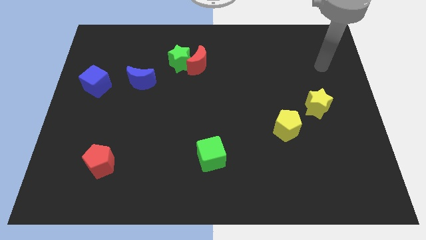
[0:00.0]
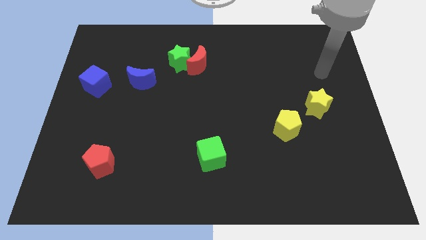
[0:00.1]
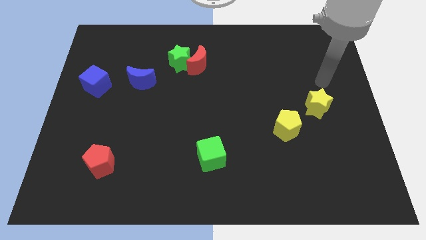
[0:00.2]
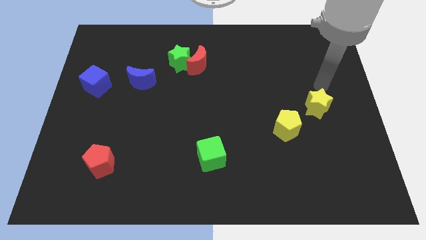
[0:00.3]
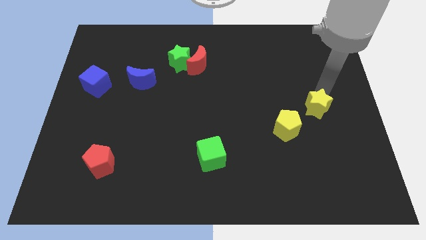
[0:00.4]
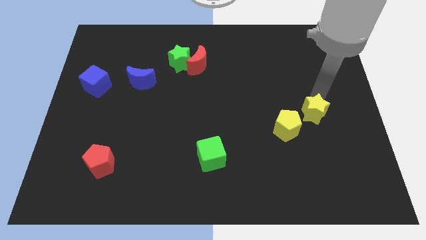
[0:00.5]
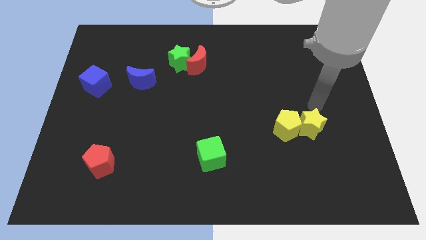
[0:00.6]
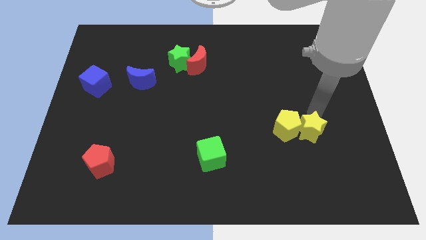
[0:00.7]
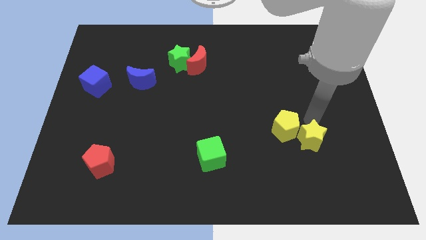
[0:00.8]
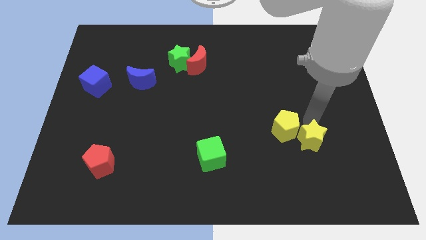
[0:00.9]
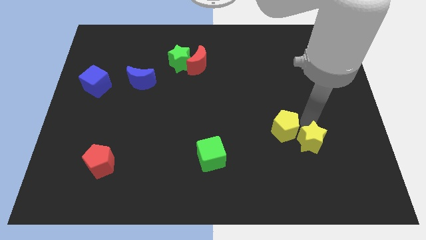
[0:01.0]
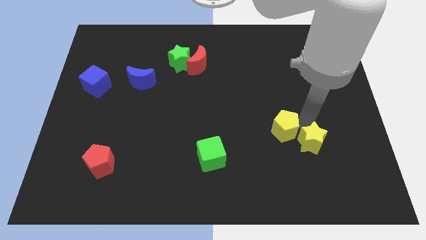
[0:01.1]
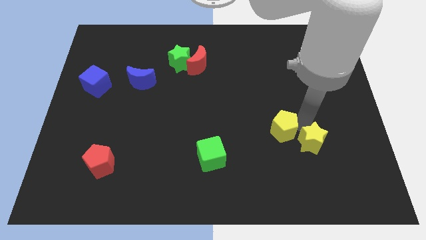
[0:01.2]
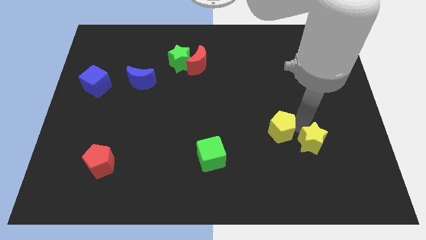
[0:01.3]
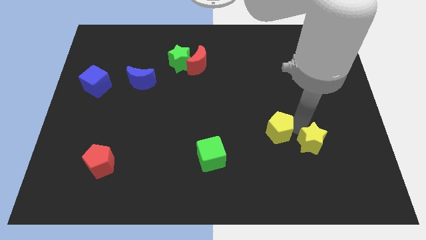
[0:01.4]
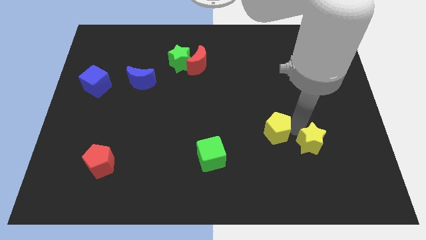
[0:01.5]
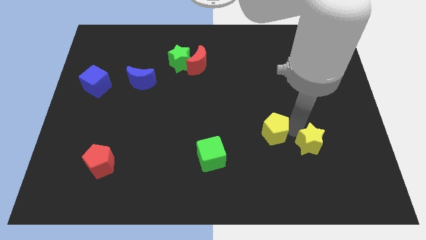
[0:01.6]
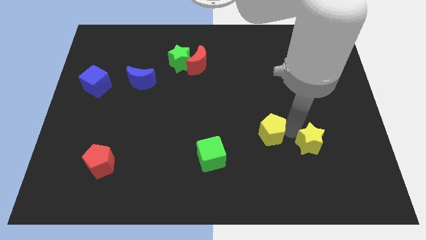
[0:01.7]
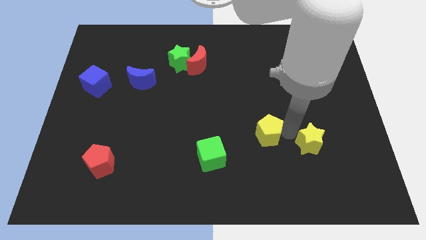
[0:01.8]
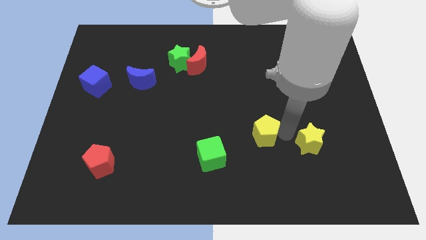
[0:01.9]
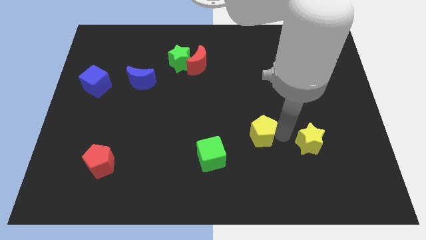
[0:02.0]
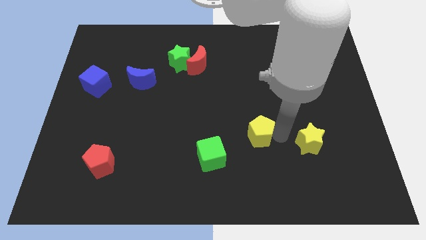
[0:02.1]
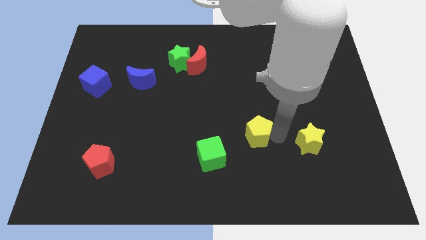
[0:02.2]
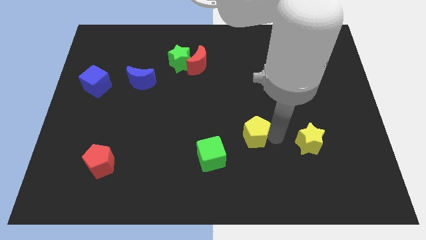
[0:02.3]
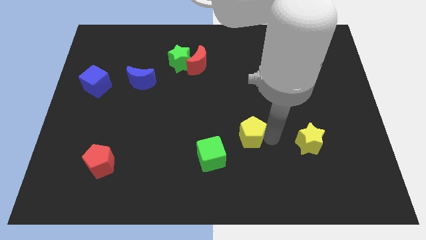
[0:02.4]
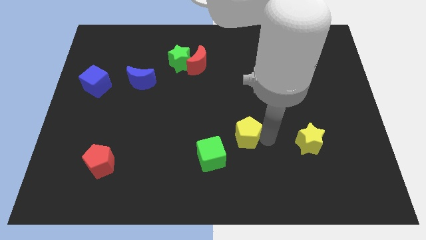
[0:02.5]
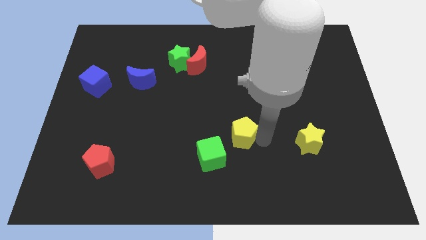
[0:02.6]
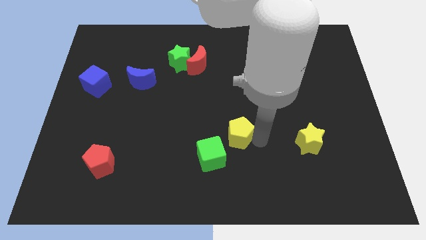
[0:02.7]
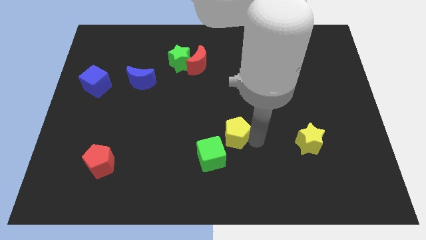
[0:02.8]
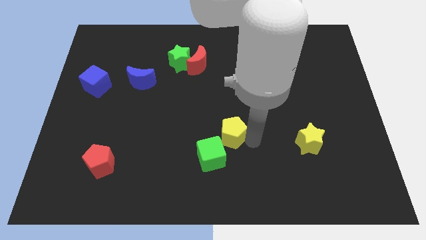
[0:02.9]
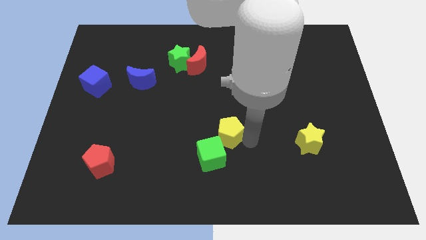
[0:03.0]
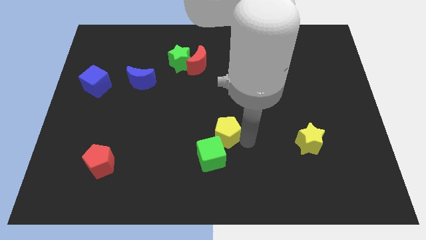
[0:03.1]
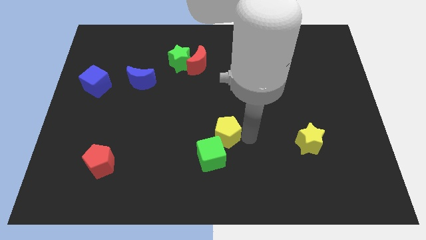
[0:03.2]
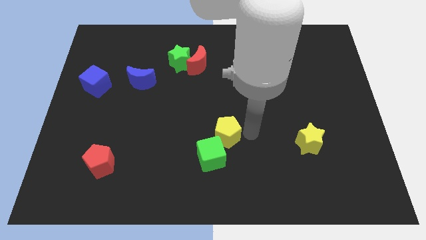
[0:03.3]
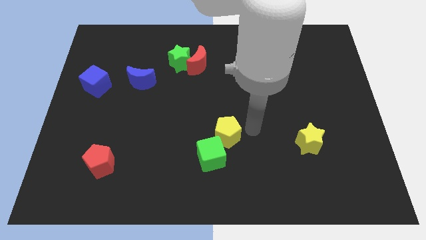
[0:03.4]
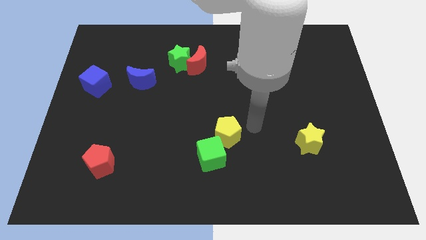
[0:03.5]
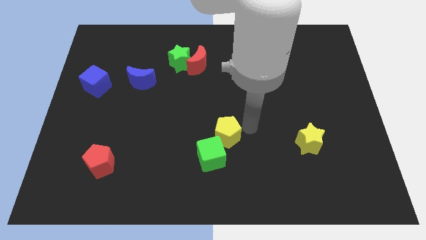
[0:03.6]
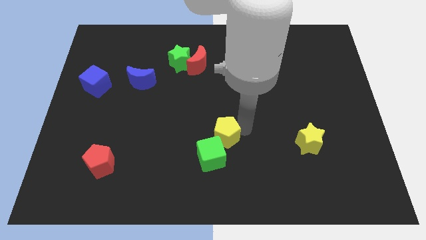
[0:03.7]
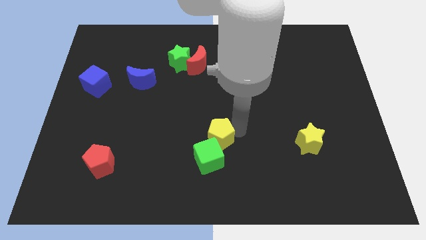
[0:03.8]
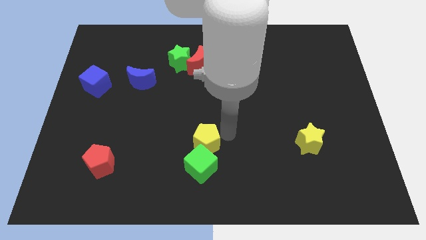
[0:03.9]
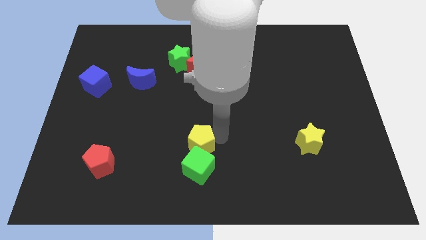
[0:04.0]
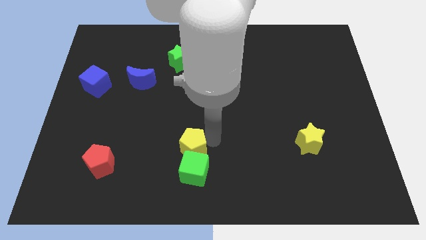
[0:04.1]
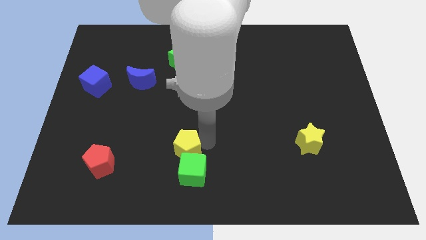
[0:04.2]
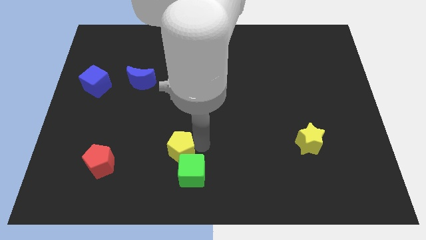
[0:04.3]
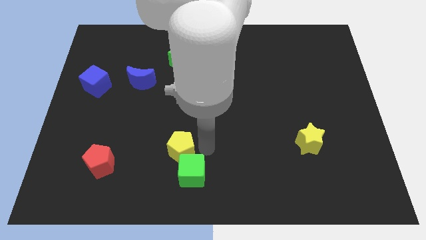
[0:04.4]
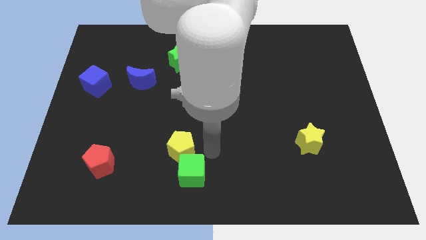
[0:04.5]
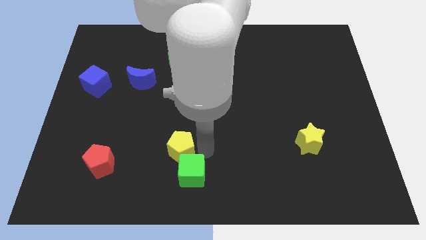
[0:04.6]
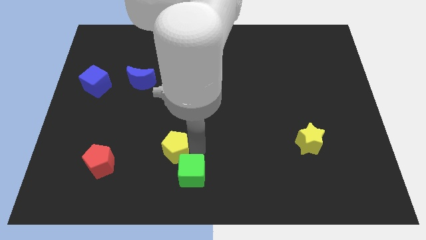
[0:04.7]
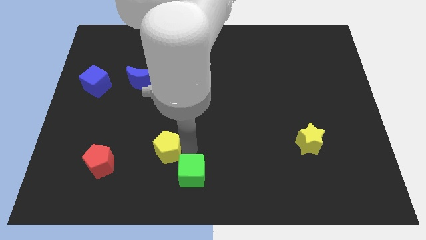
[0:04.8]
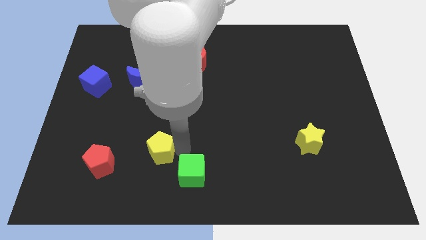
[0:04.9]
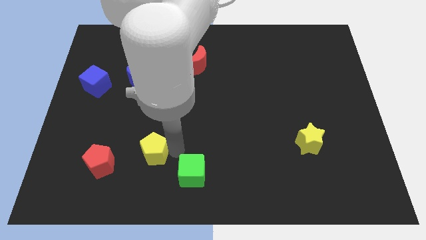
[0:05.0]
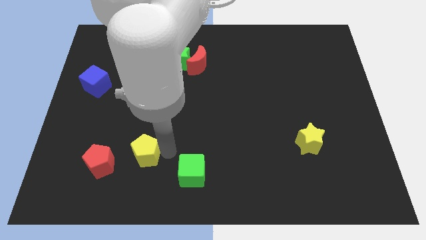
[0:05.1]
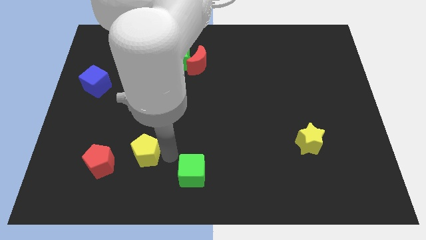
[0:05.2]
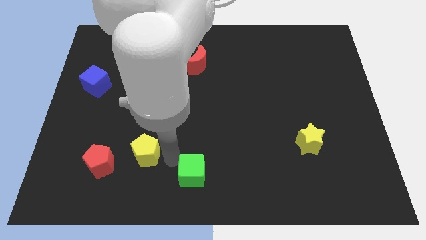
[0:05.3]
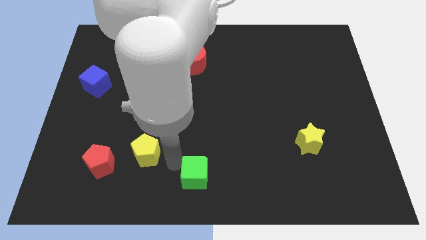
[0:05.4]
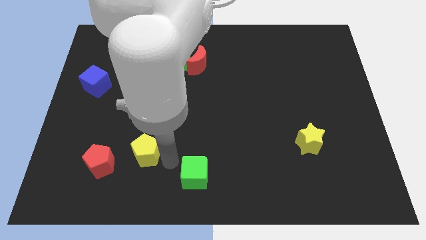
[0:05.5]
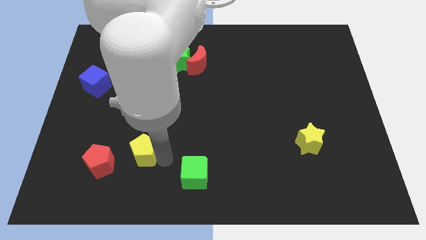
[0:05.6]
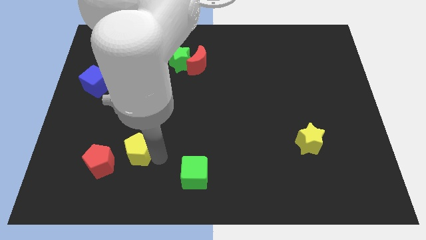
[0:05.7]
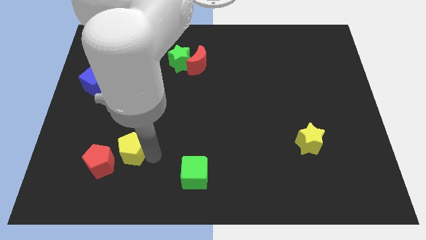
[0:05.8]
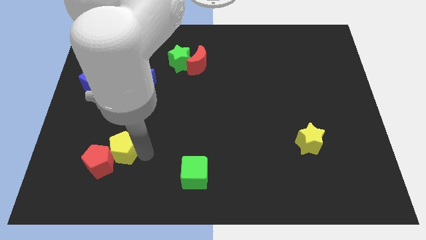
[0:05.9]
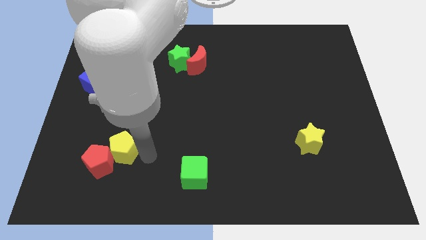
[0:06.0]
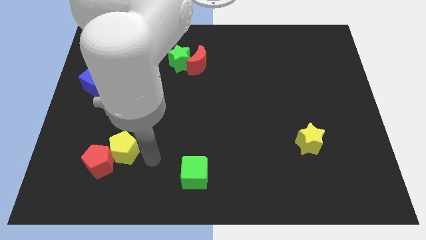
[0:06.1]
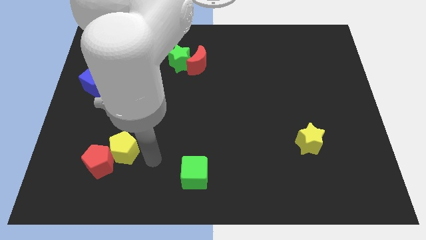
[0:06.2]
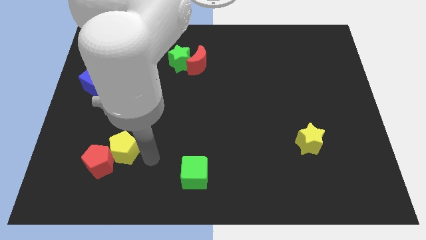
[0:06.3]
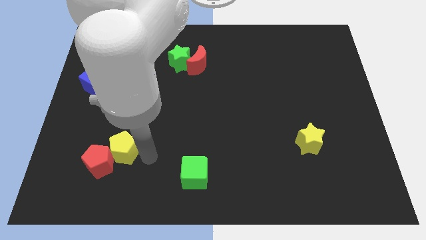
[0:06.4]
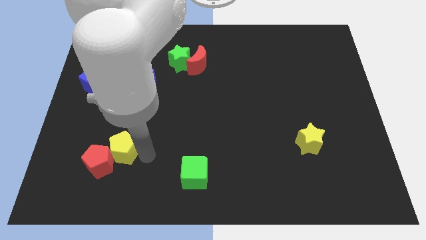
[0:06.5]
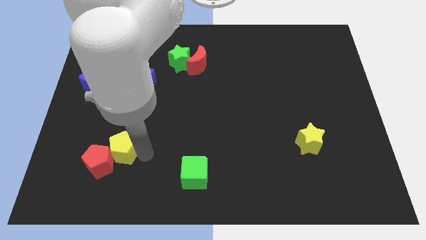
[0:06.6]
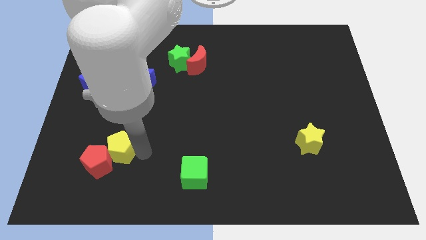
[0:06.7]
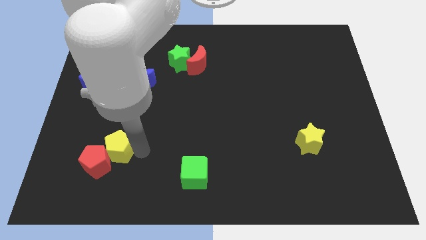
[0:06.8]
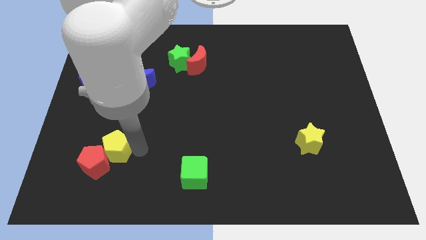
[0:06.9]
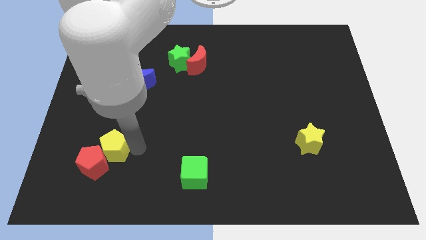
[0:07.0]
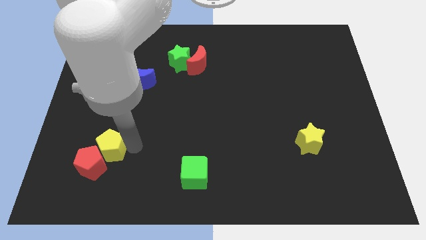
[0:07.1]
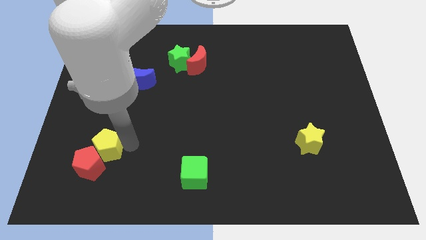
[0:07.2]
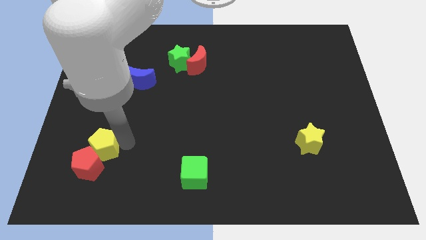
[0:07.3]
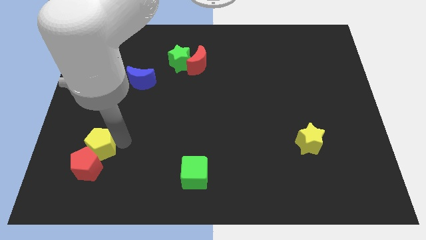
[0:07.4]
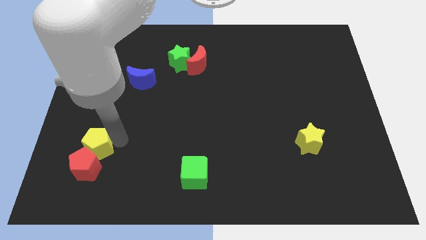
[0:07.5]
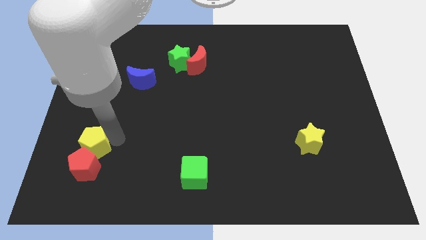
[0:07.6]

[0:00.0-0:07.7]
slide the yellow pentagon to the top left of the red pentagon
